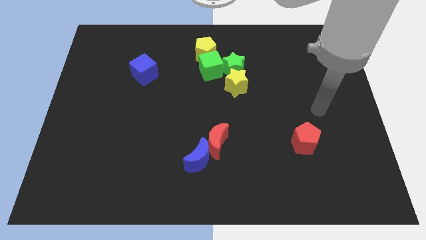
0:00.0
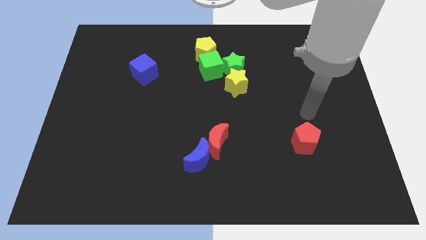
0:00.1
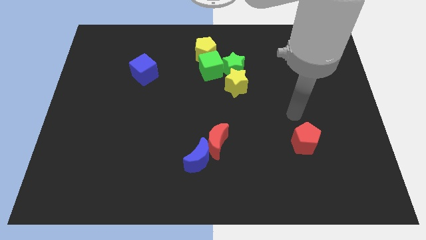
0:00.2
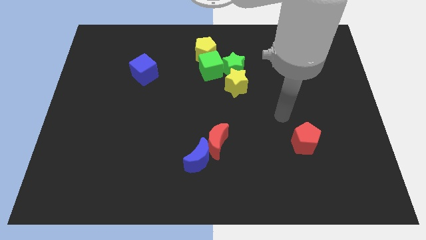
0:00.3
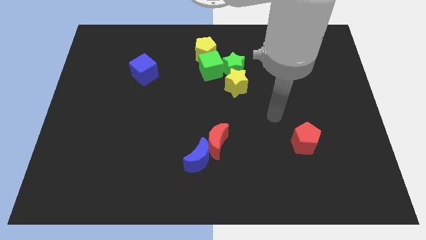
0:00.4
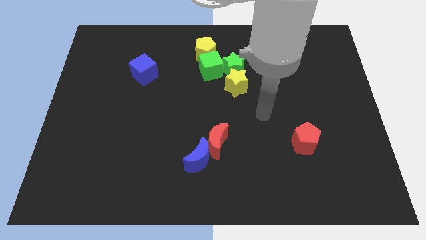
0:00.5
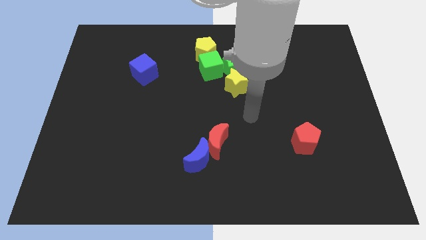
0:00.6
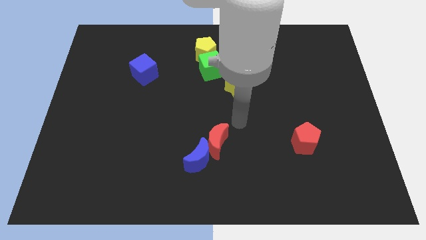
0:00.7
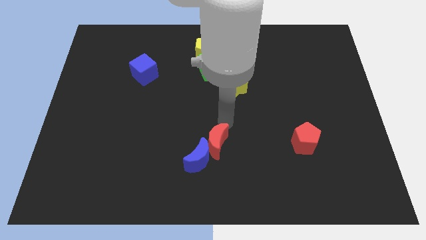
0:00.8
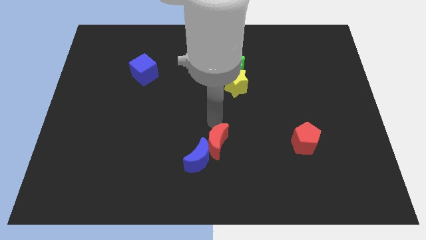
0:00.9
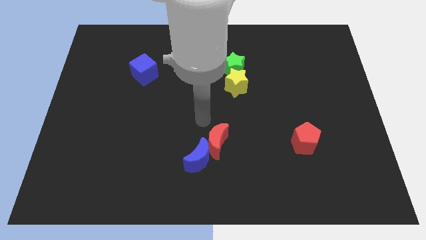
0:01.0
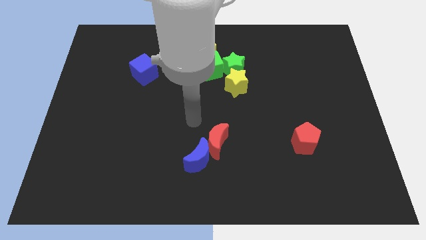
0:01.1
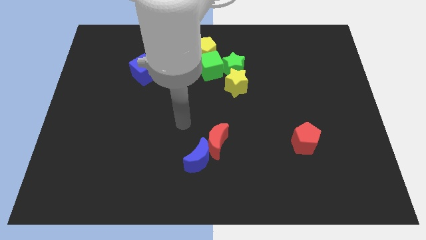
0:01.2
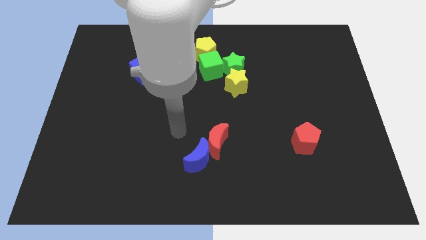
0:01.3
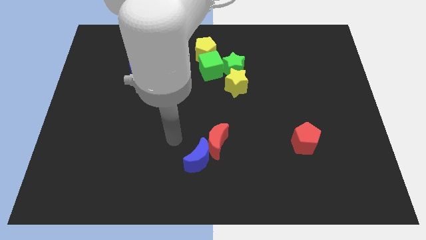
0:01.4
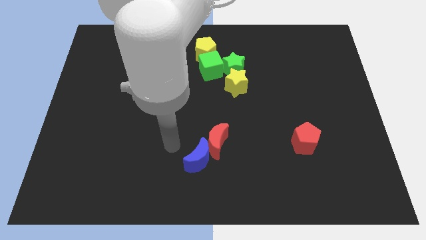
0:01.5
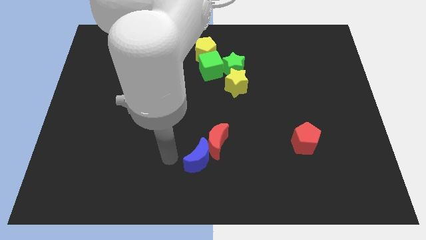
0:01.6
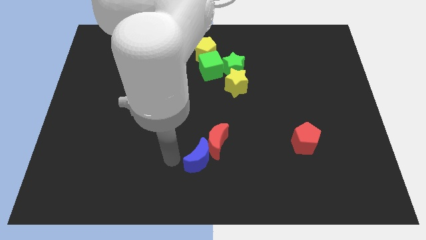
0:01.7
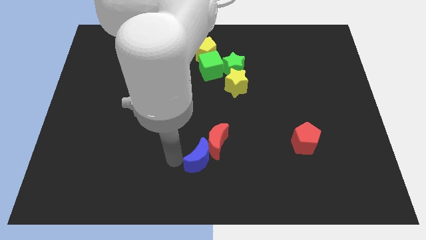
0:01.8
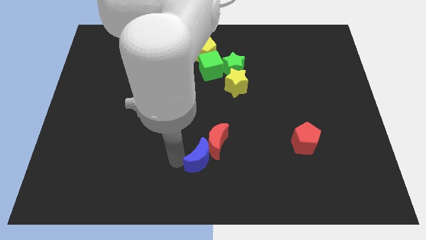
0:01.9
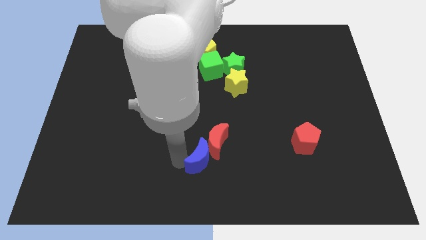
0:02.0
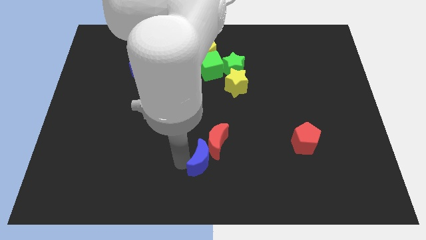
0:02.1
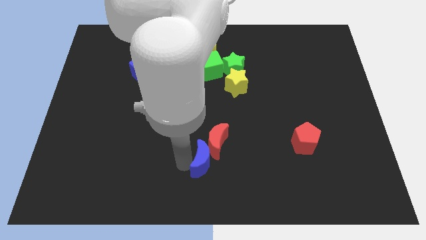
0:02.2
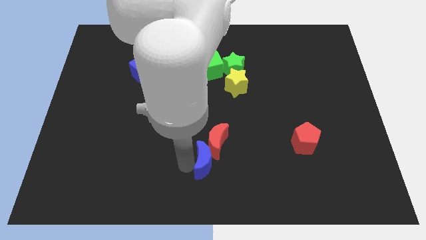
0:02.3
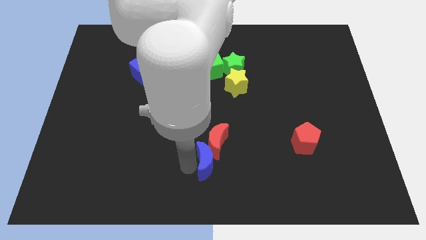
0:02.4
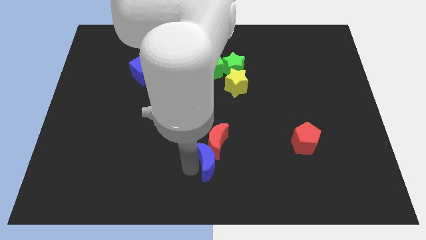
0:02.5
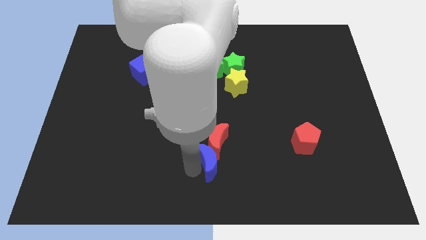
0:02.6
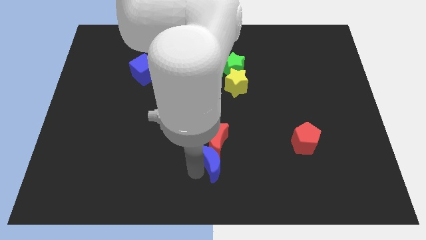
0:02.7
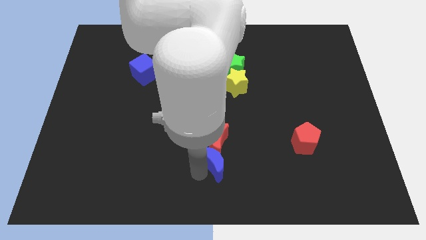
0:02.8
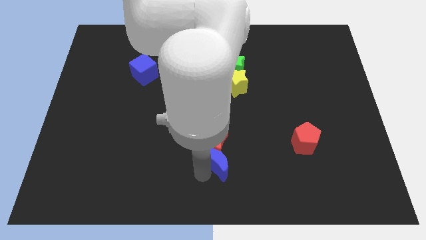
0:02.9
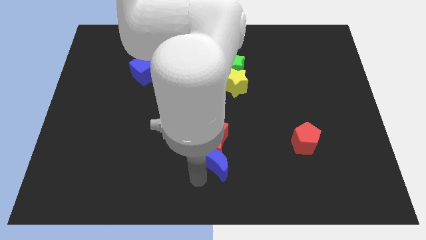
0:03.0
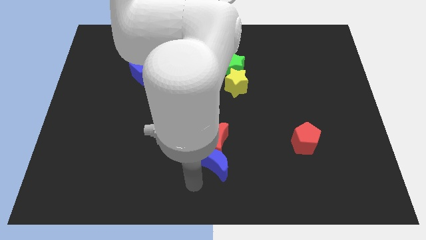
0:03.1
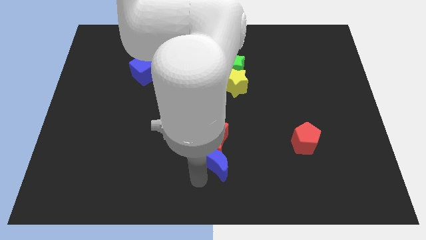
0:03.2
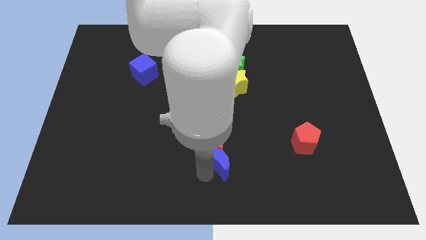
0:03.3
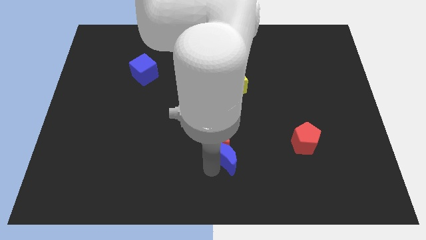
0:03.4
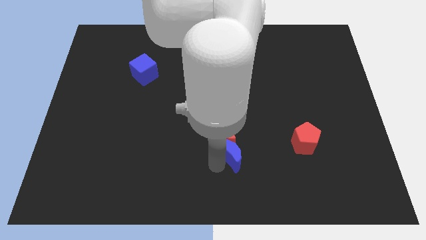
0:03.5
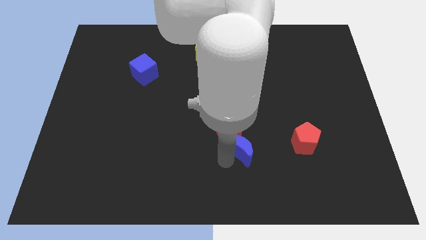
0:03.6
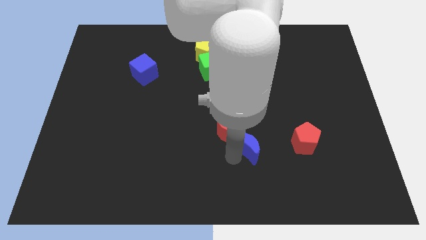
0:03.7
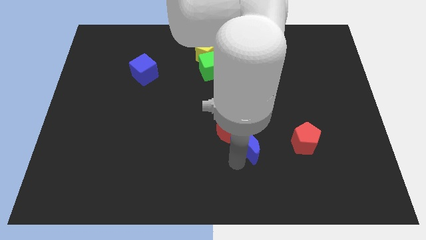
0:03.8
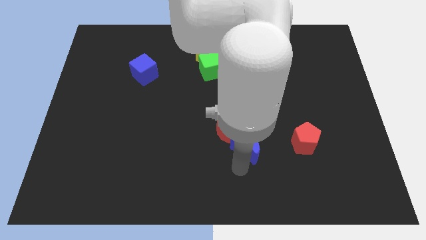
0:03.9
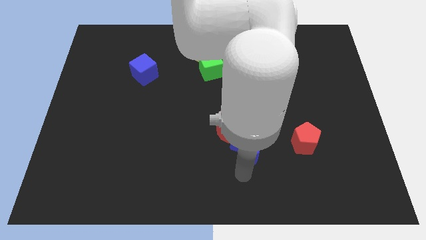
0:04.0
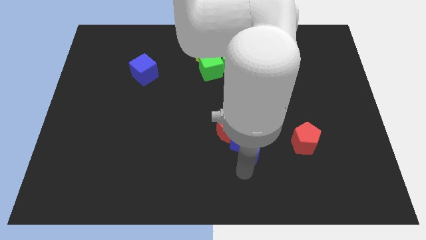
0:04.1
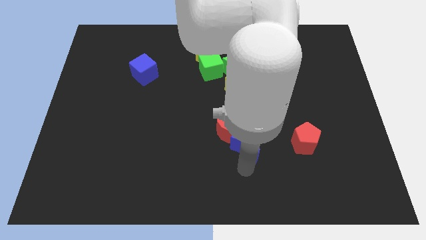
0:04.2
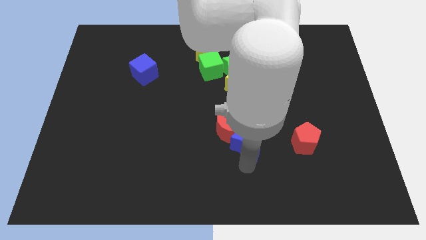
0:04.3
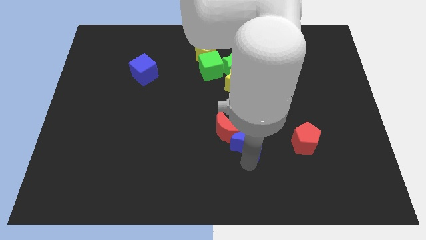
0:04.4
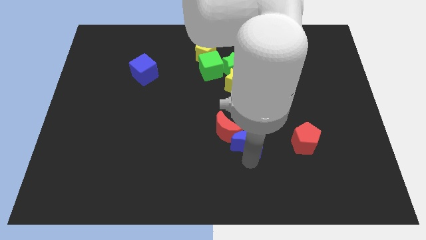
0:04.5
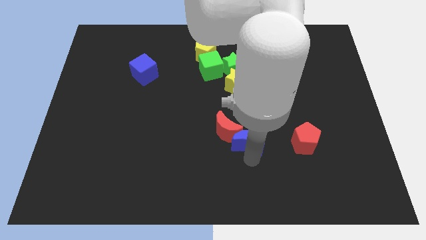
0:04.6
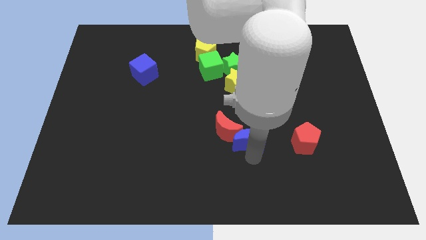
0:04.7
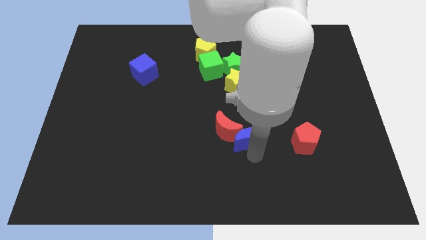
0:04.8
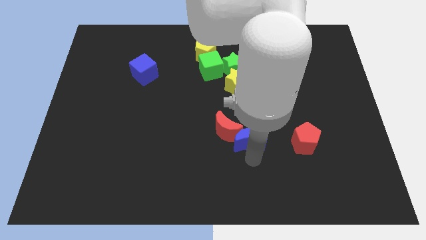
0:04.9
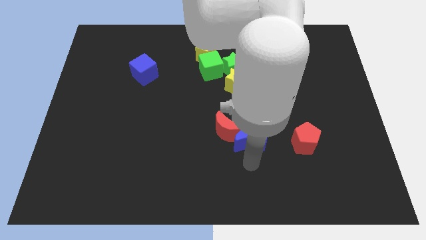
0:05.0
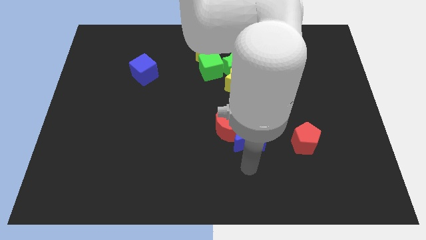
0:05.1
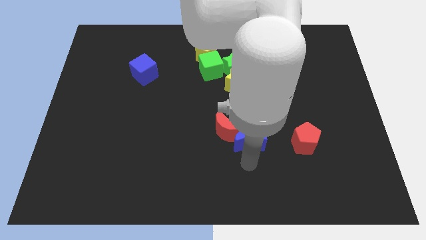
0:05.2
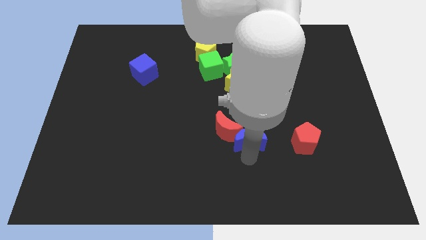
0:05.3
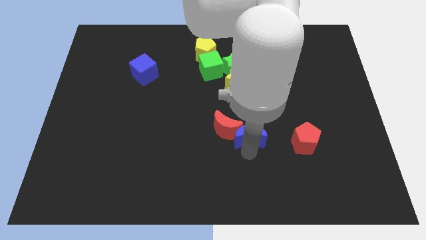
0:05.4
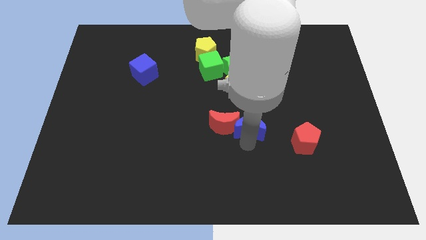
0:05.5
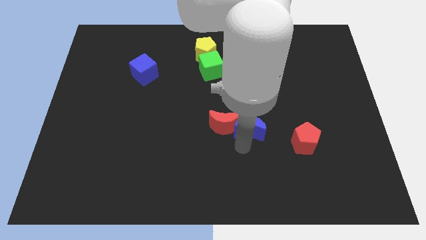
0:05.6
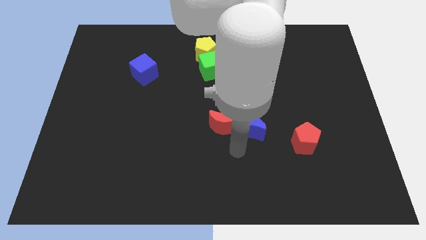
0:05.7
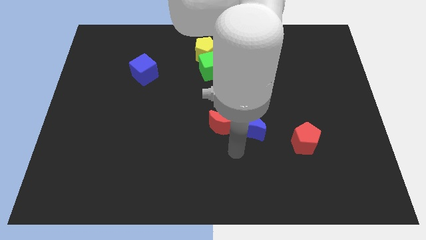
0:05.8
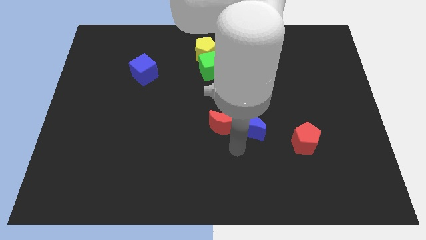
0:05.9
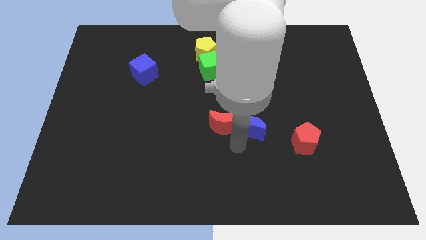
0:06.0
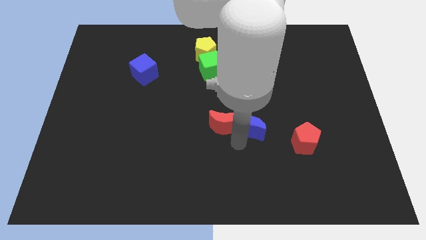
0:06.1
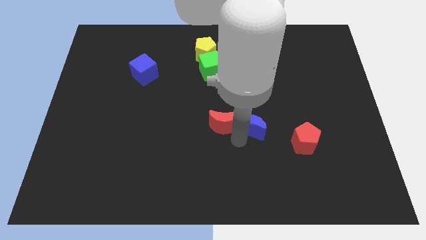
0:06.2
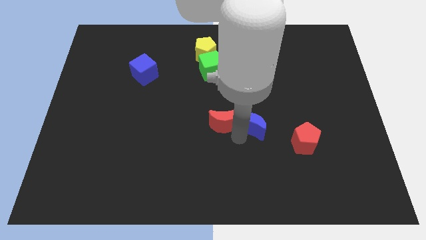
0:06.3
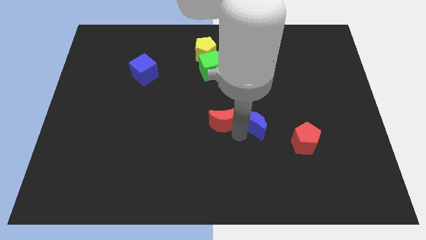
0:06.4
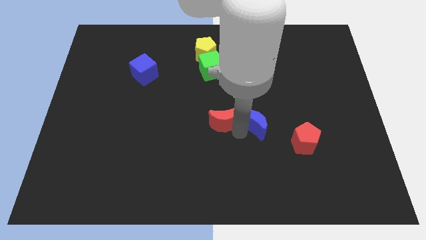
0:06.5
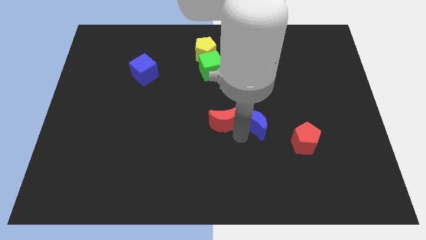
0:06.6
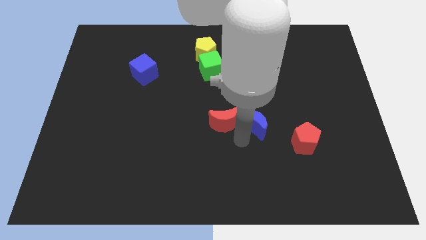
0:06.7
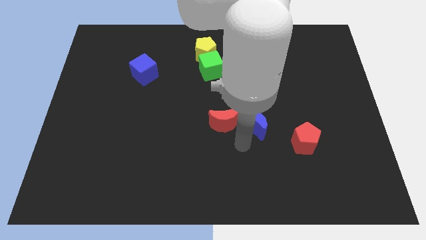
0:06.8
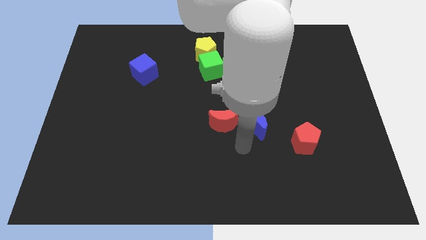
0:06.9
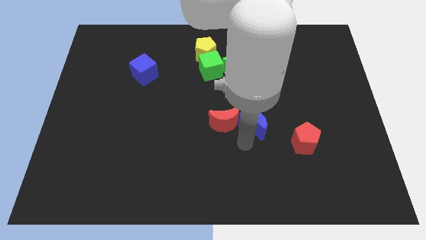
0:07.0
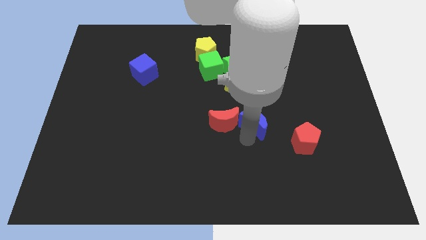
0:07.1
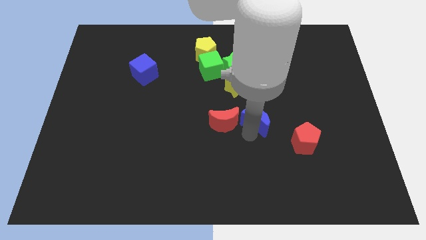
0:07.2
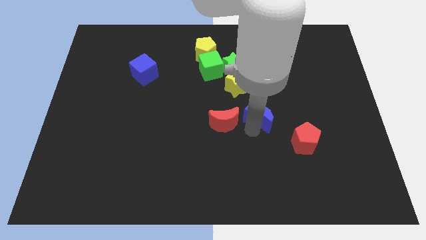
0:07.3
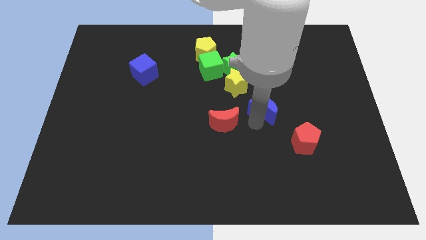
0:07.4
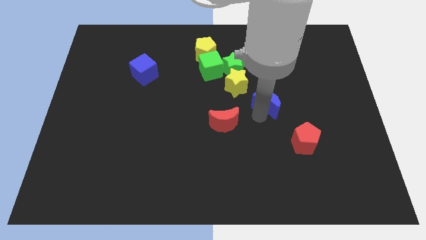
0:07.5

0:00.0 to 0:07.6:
slide the blue moon up and then to the right

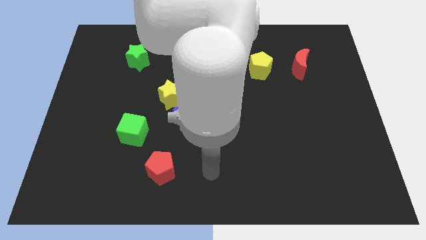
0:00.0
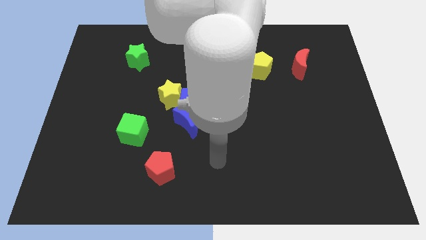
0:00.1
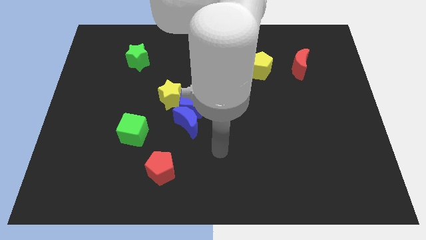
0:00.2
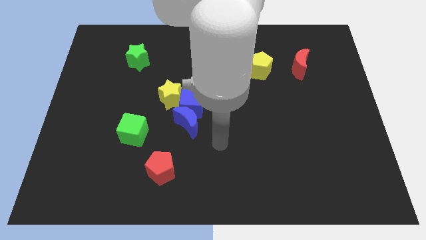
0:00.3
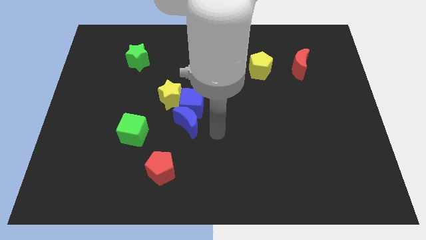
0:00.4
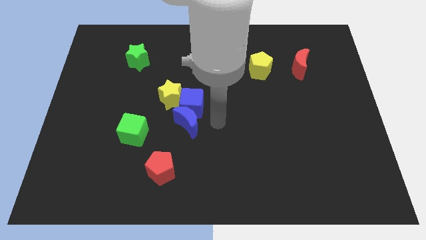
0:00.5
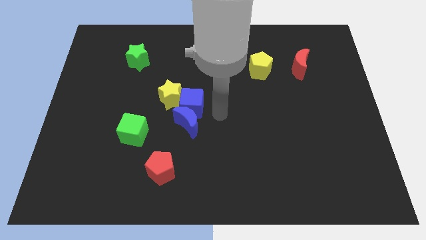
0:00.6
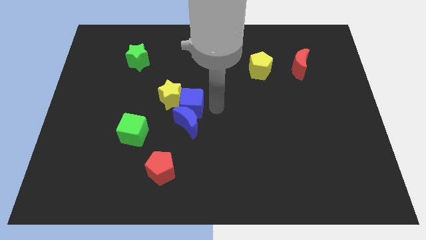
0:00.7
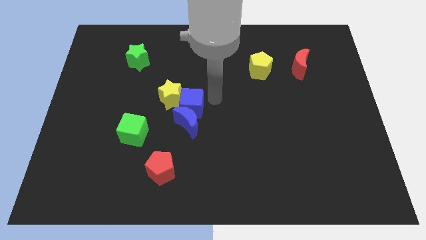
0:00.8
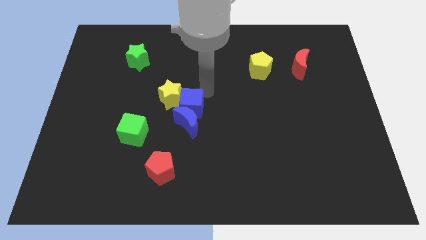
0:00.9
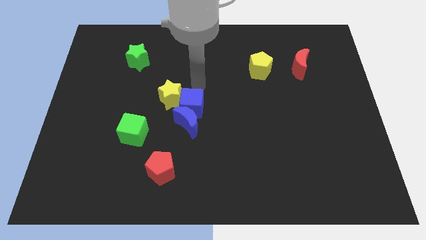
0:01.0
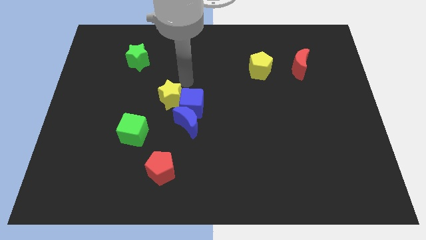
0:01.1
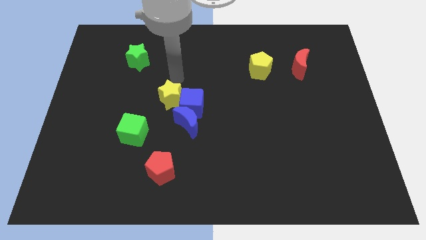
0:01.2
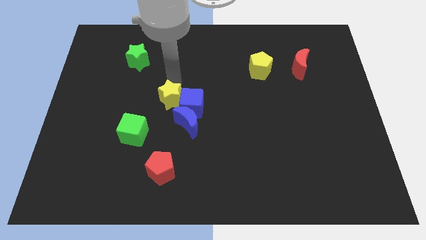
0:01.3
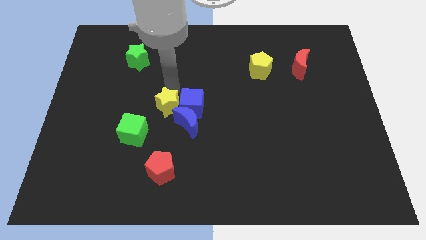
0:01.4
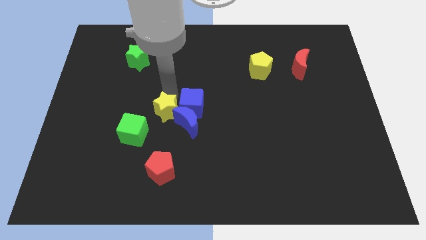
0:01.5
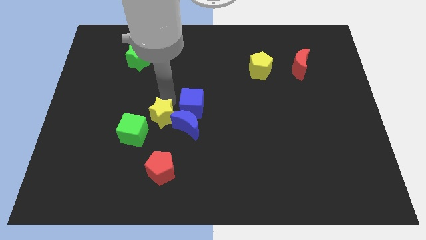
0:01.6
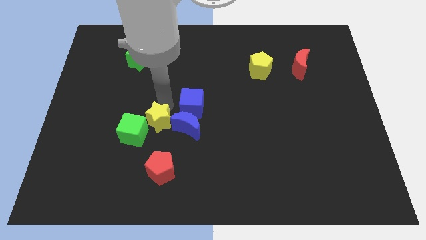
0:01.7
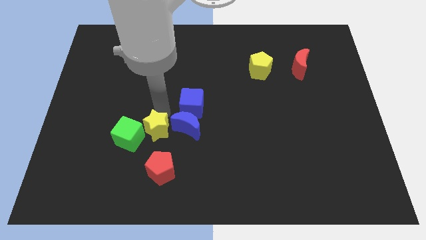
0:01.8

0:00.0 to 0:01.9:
slide the yellow star a little bit downwards and left
